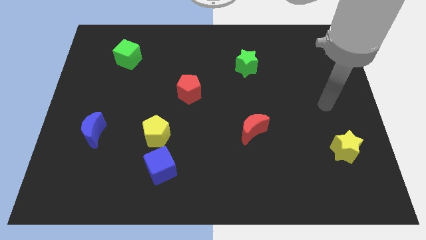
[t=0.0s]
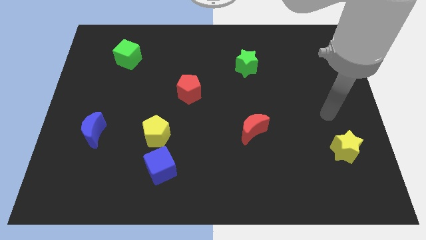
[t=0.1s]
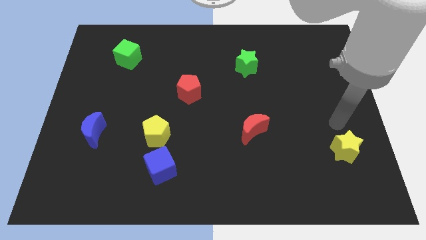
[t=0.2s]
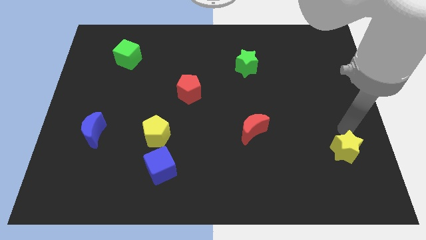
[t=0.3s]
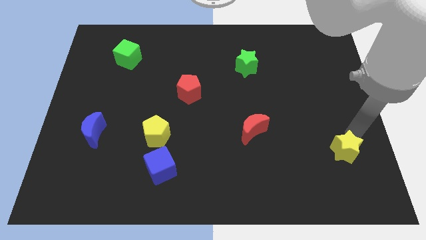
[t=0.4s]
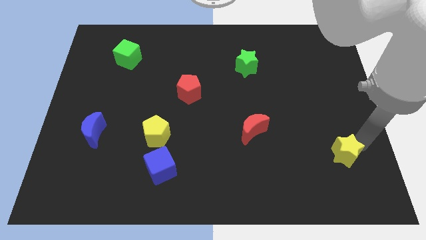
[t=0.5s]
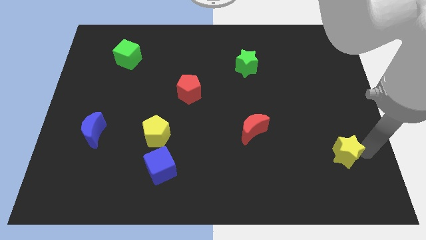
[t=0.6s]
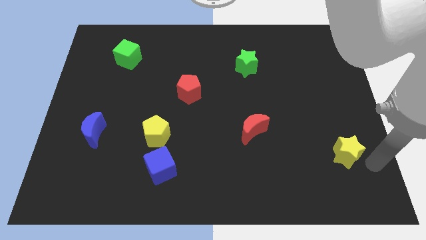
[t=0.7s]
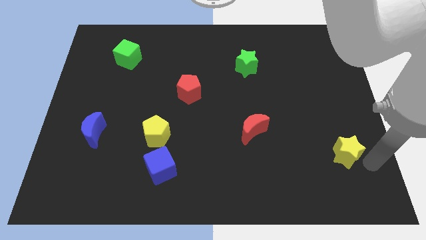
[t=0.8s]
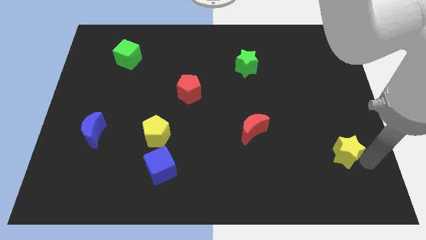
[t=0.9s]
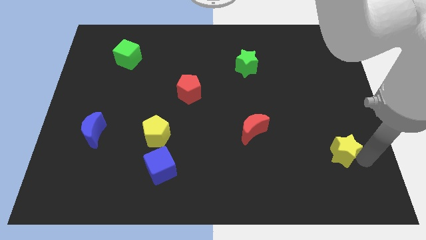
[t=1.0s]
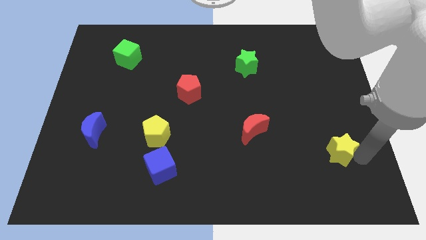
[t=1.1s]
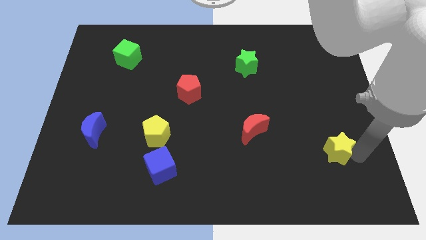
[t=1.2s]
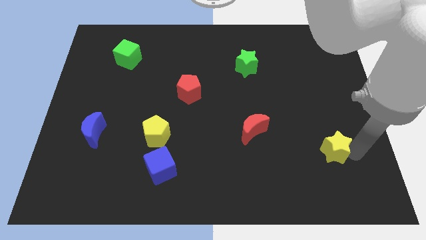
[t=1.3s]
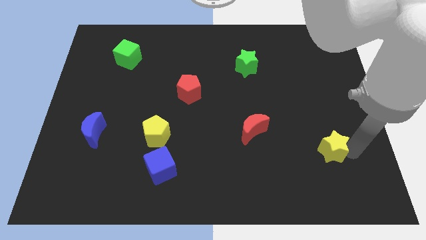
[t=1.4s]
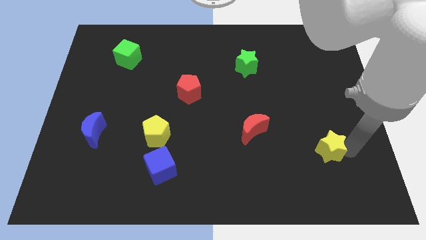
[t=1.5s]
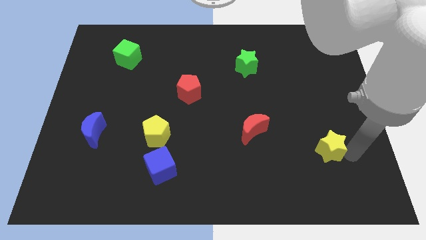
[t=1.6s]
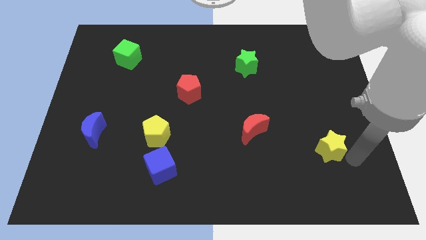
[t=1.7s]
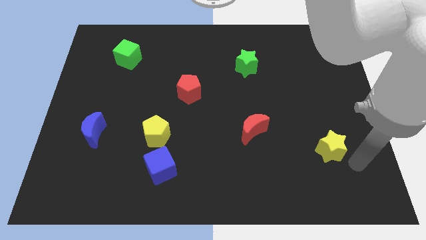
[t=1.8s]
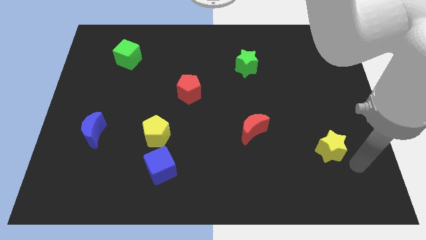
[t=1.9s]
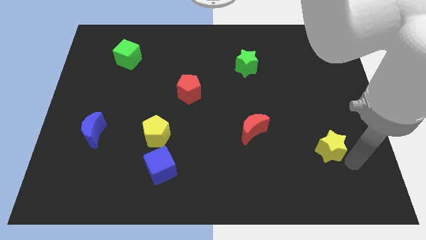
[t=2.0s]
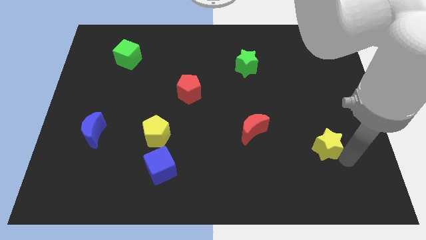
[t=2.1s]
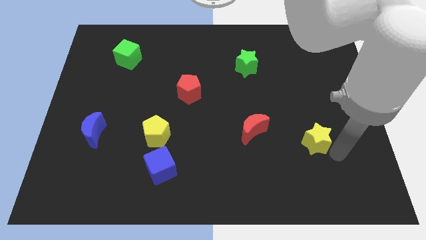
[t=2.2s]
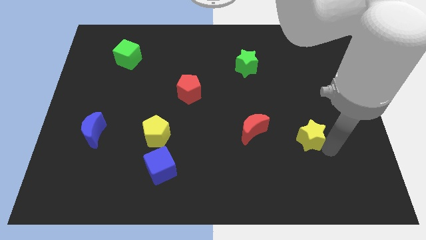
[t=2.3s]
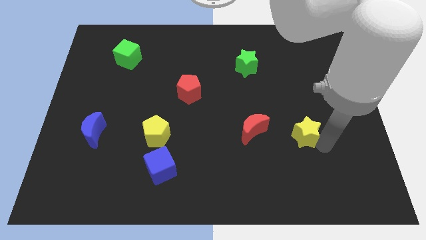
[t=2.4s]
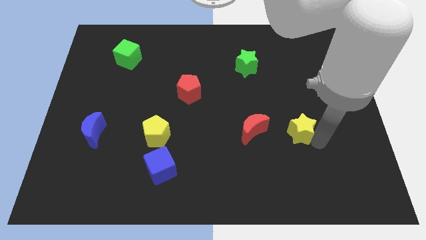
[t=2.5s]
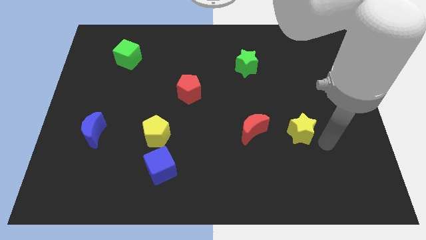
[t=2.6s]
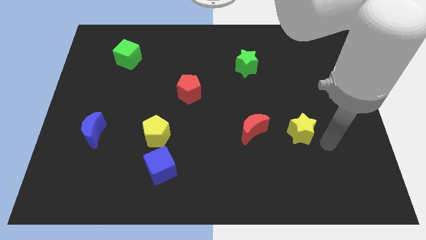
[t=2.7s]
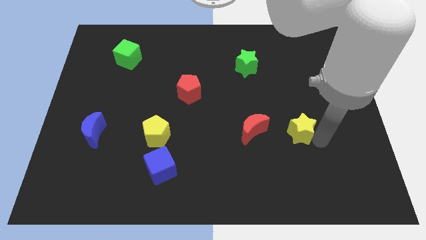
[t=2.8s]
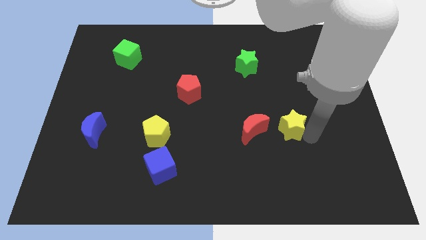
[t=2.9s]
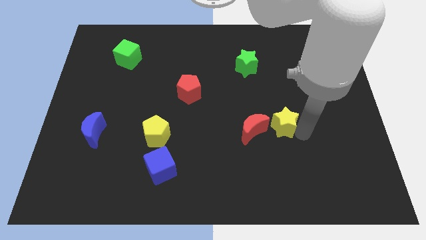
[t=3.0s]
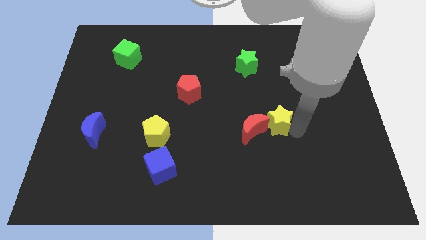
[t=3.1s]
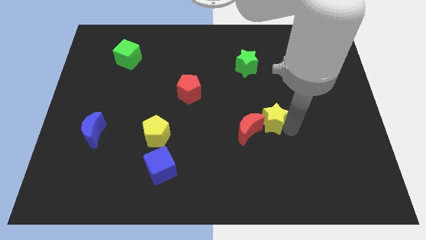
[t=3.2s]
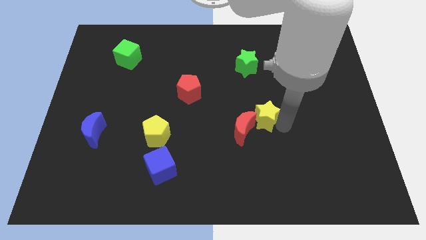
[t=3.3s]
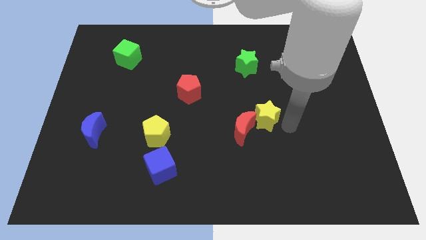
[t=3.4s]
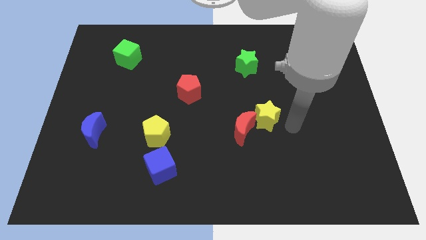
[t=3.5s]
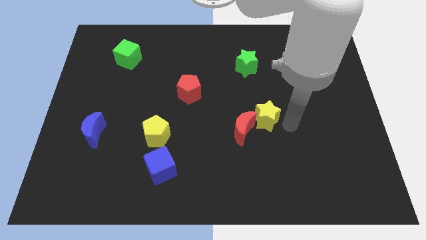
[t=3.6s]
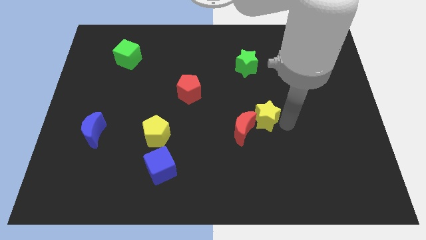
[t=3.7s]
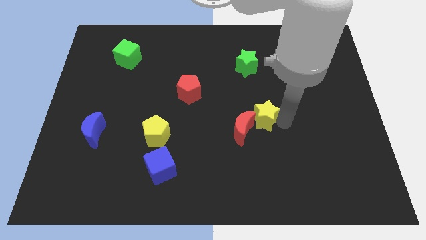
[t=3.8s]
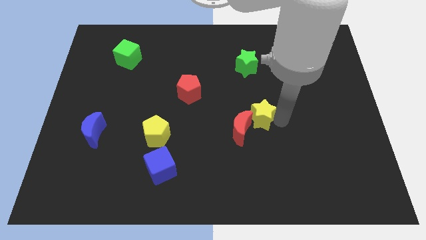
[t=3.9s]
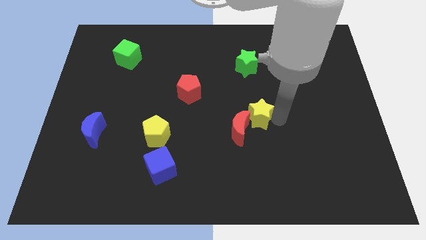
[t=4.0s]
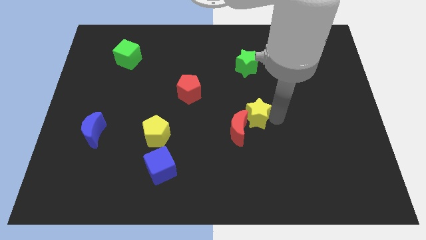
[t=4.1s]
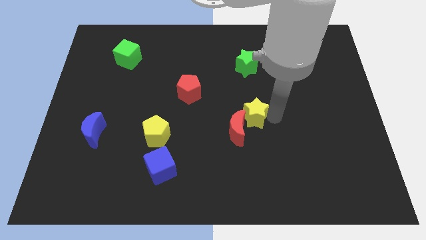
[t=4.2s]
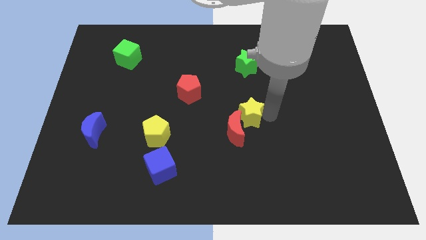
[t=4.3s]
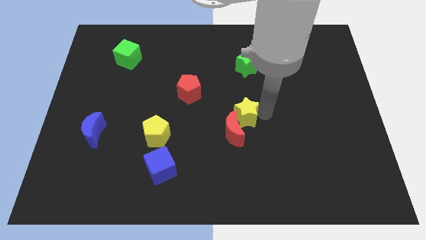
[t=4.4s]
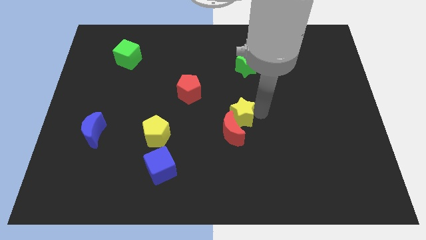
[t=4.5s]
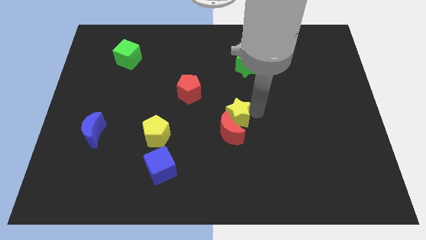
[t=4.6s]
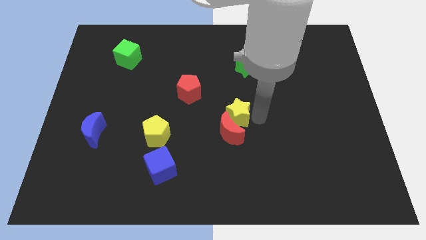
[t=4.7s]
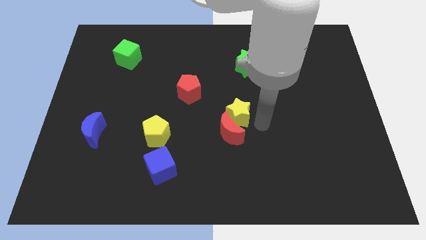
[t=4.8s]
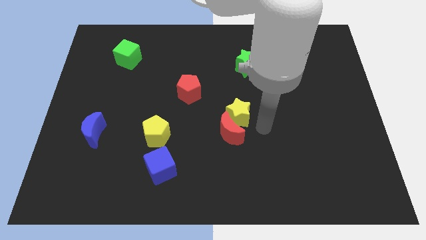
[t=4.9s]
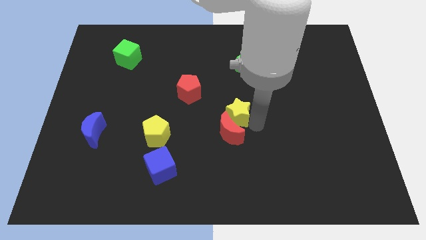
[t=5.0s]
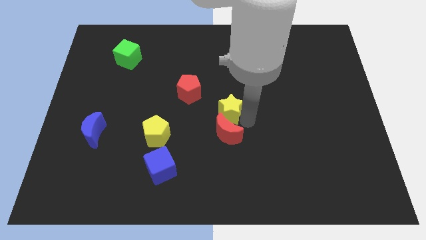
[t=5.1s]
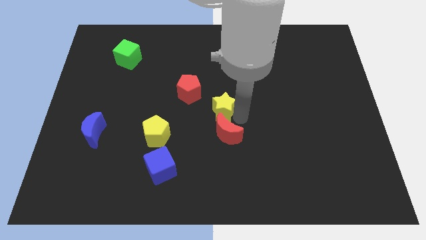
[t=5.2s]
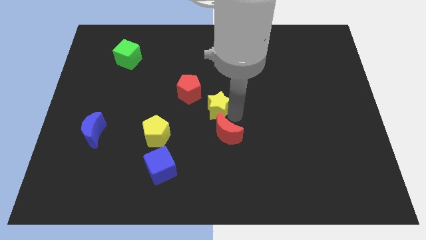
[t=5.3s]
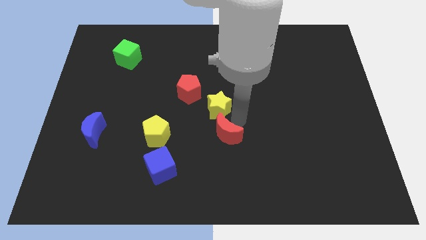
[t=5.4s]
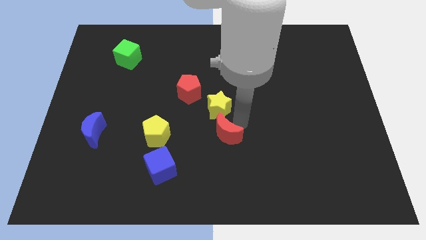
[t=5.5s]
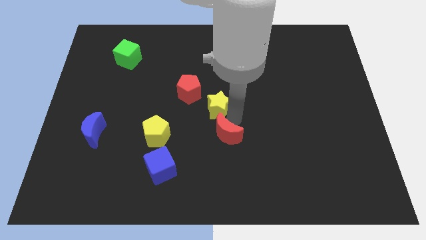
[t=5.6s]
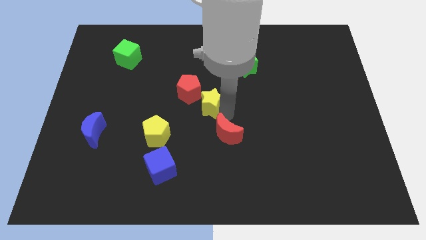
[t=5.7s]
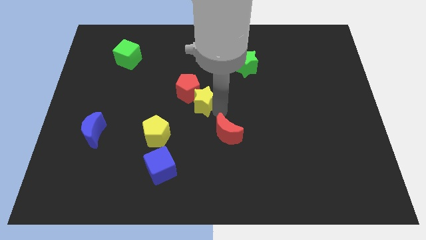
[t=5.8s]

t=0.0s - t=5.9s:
move the yellow star next to the red pentagon

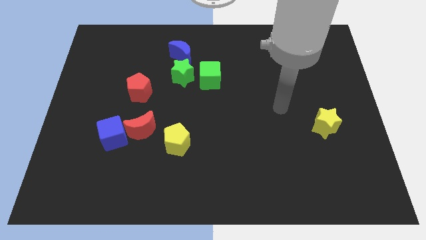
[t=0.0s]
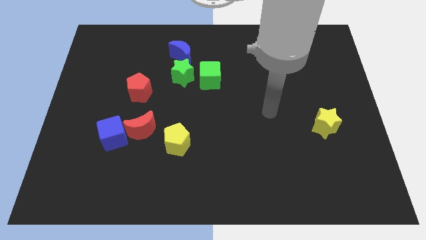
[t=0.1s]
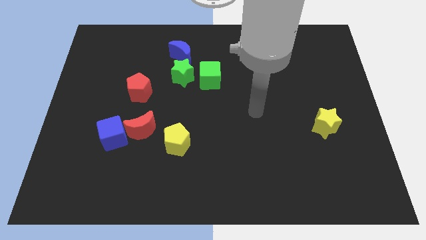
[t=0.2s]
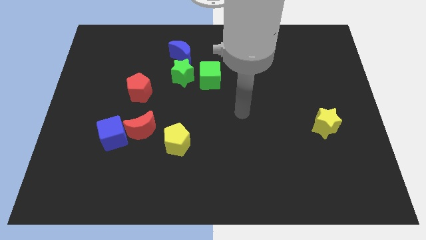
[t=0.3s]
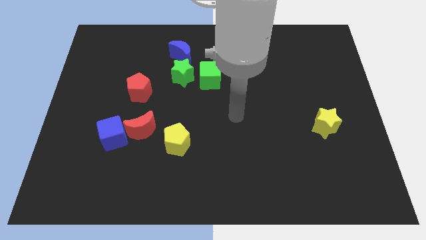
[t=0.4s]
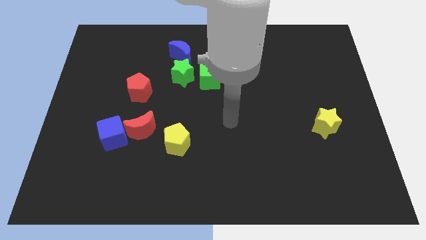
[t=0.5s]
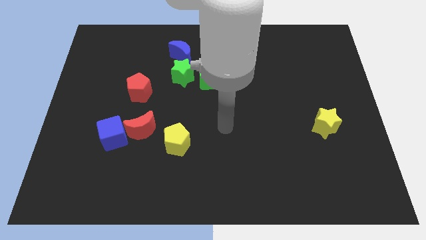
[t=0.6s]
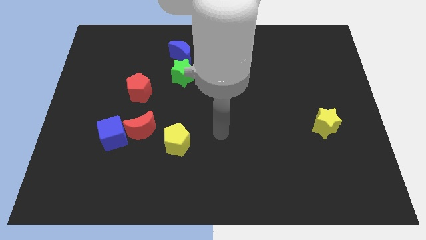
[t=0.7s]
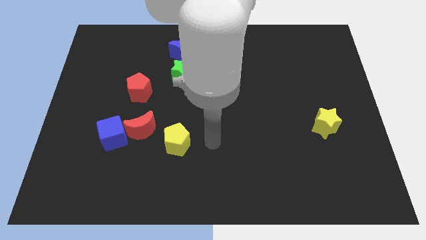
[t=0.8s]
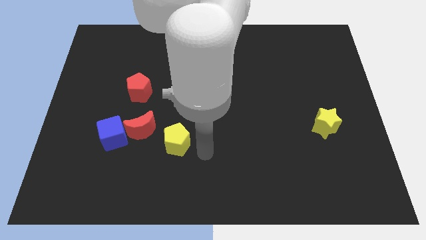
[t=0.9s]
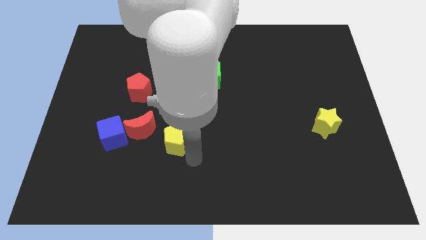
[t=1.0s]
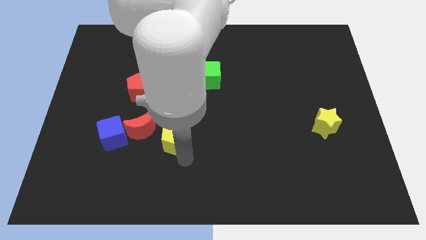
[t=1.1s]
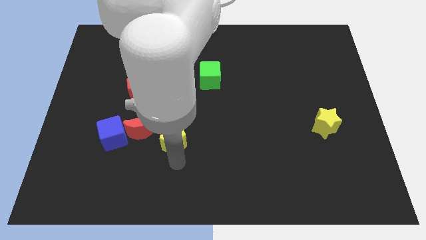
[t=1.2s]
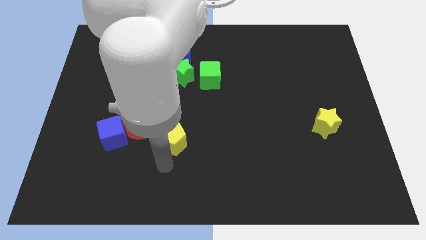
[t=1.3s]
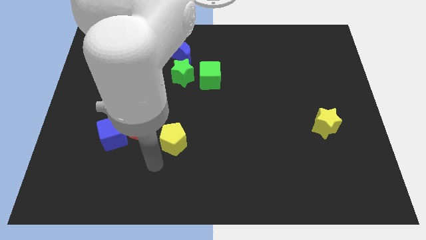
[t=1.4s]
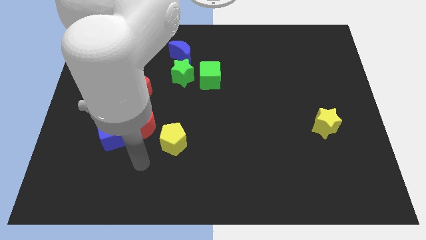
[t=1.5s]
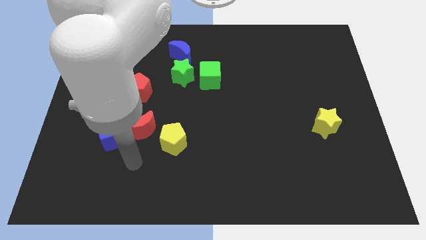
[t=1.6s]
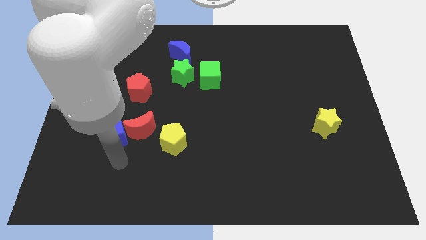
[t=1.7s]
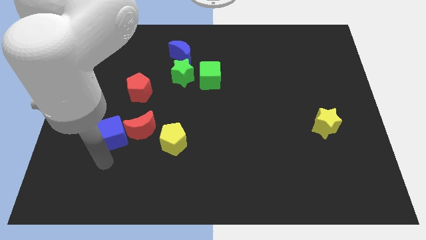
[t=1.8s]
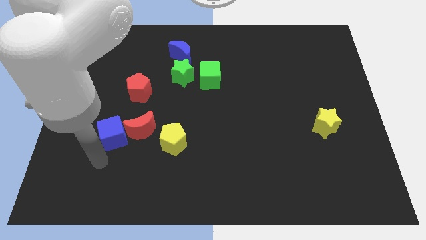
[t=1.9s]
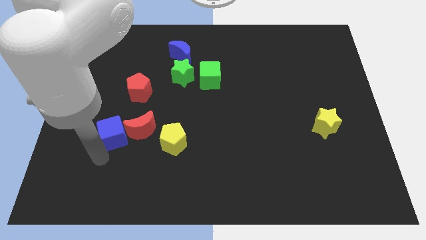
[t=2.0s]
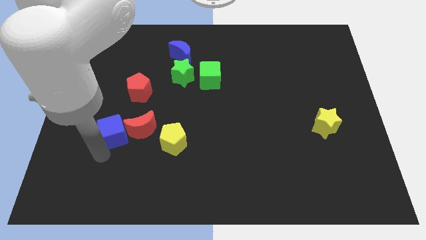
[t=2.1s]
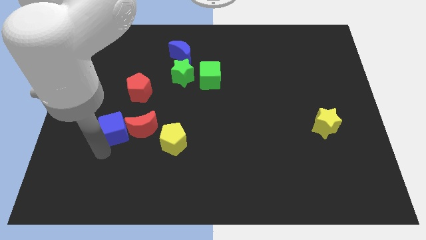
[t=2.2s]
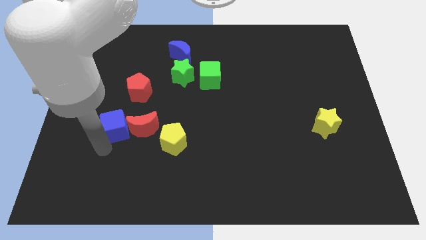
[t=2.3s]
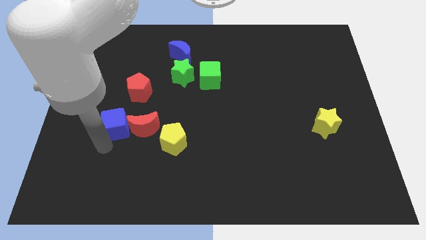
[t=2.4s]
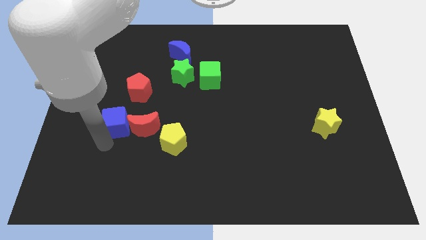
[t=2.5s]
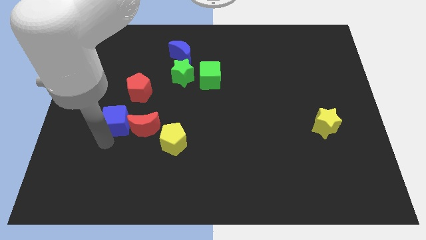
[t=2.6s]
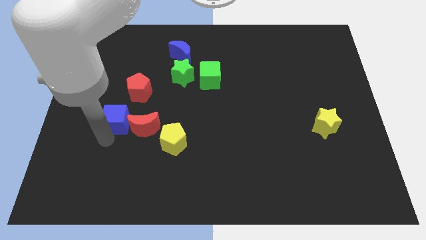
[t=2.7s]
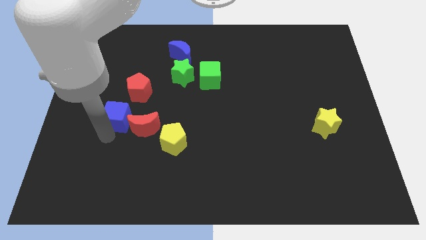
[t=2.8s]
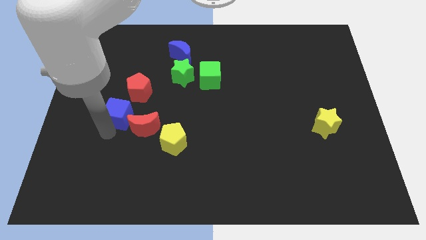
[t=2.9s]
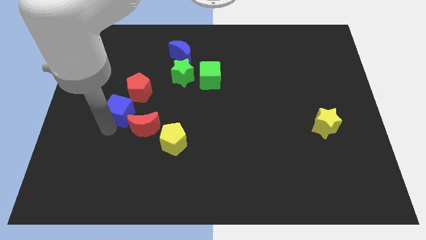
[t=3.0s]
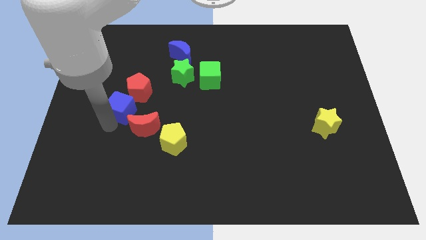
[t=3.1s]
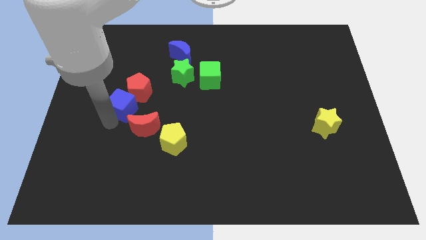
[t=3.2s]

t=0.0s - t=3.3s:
push the blue cube towards the red pentagon
